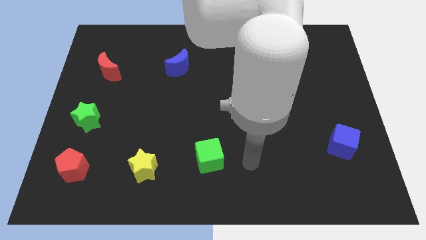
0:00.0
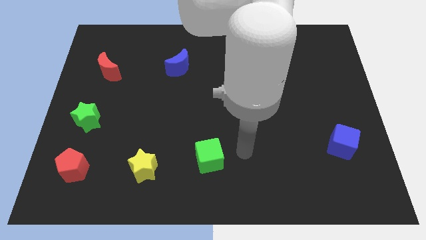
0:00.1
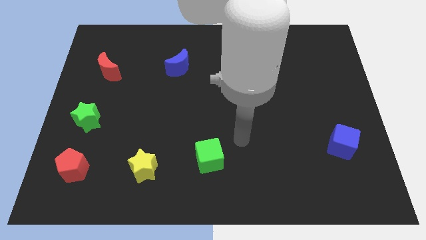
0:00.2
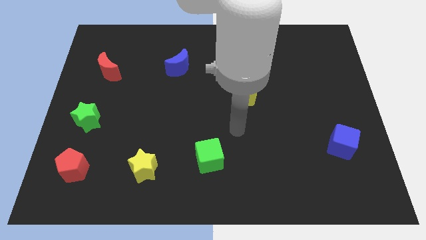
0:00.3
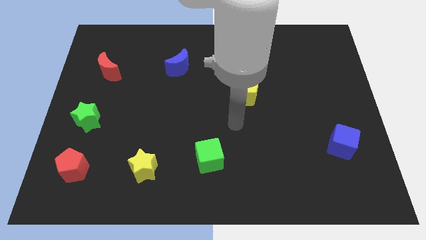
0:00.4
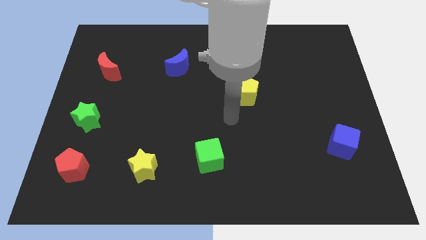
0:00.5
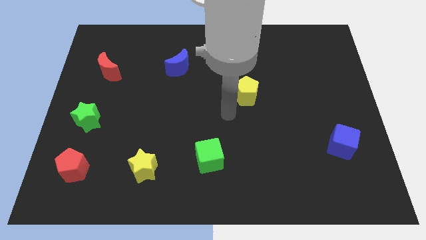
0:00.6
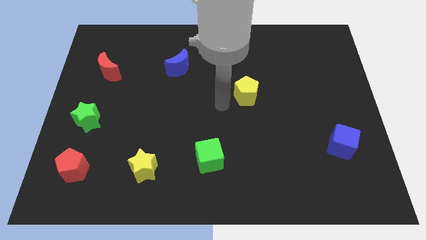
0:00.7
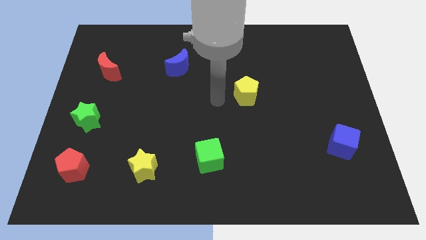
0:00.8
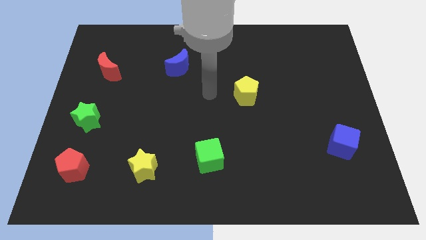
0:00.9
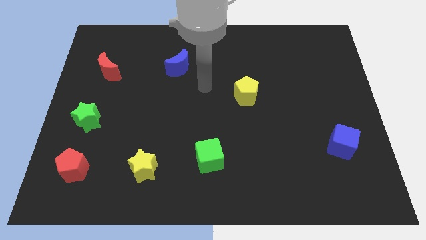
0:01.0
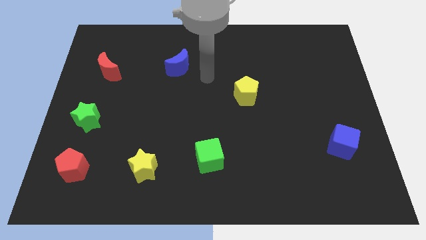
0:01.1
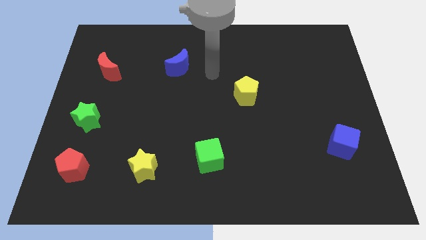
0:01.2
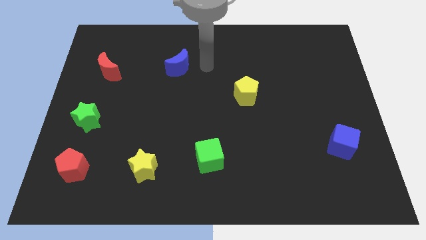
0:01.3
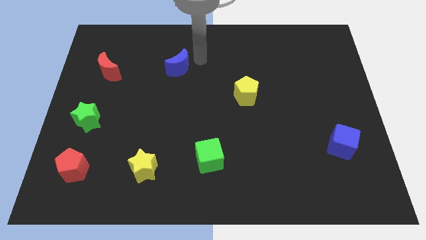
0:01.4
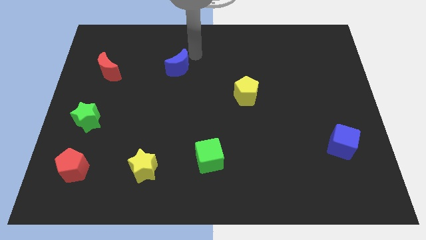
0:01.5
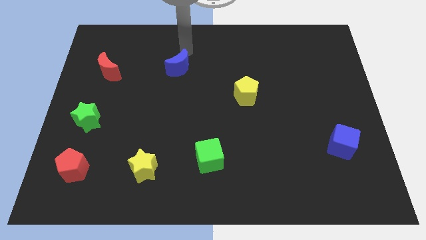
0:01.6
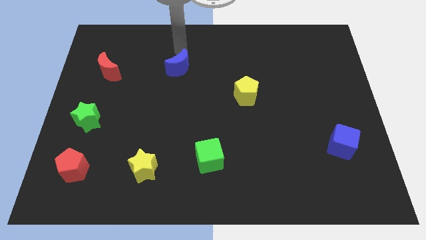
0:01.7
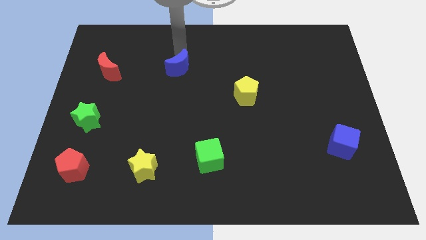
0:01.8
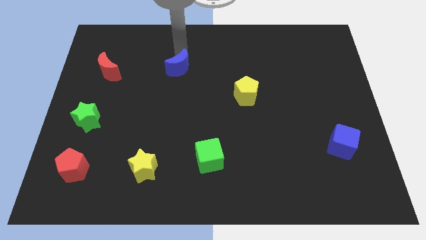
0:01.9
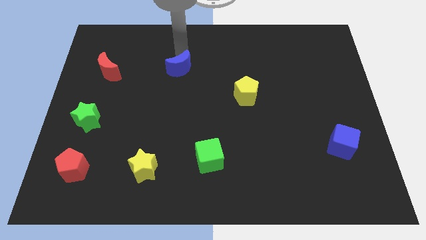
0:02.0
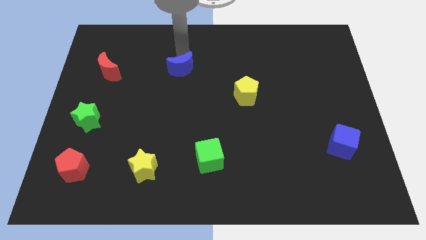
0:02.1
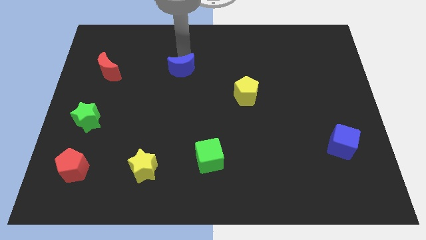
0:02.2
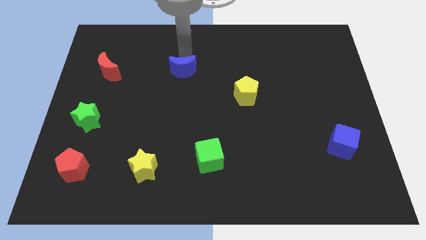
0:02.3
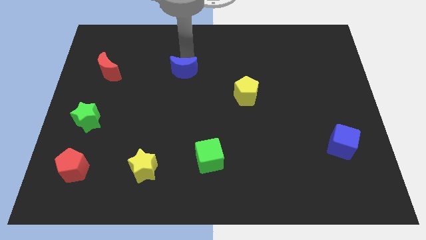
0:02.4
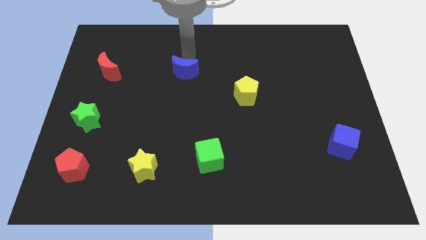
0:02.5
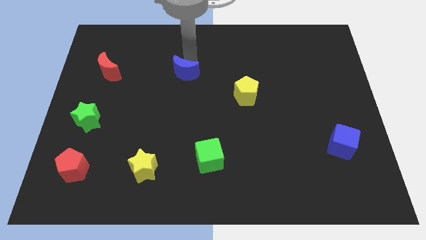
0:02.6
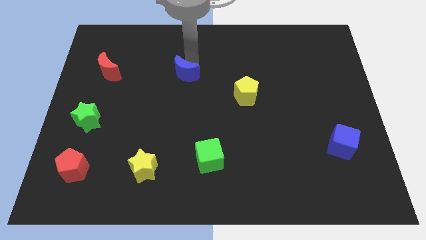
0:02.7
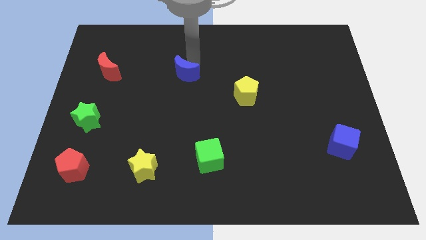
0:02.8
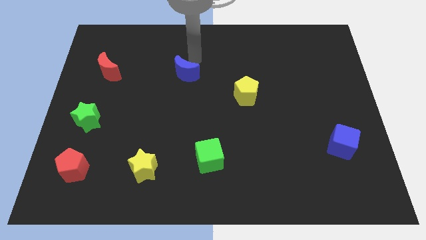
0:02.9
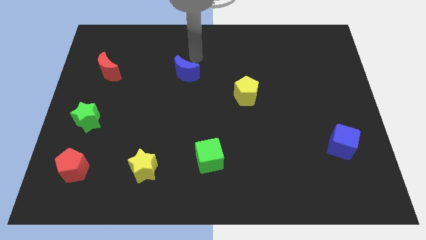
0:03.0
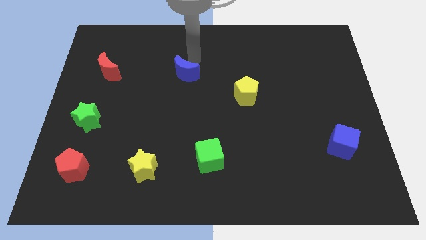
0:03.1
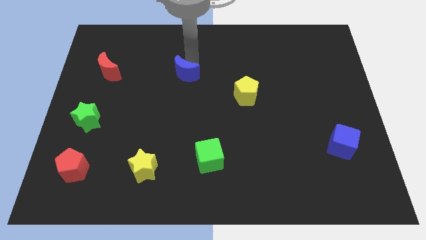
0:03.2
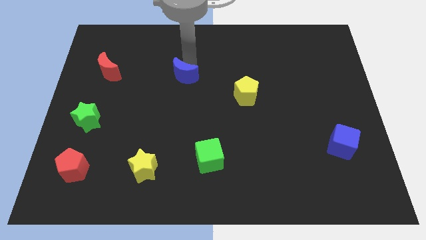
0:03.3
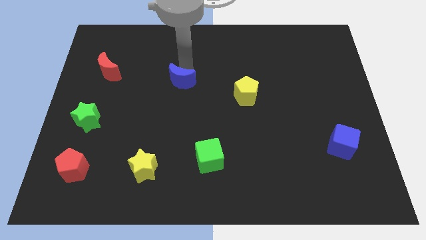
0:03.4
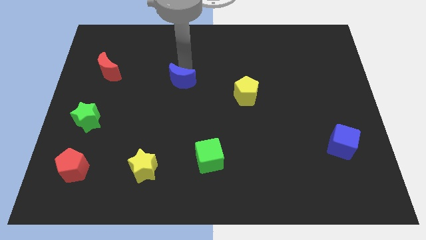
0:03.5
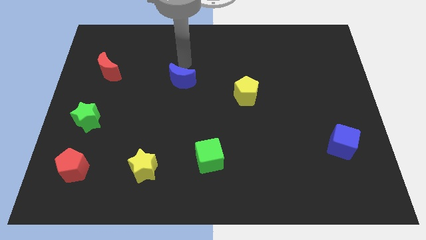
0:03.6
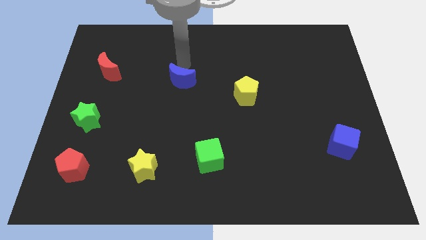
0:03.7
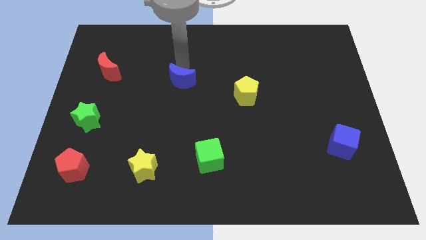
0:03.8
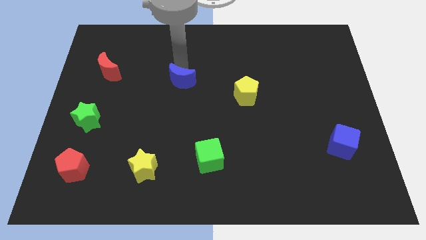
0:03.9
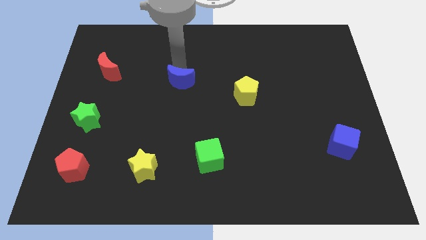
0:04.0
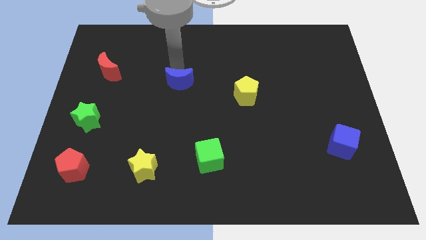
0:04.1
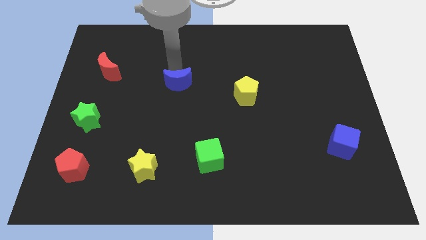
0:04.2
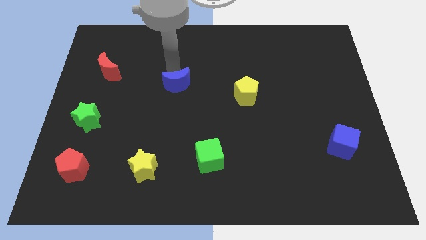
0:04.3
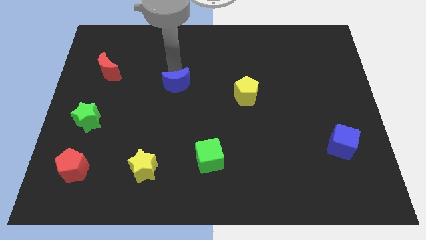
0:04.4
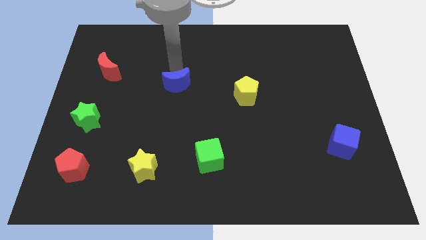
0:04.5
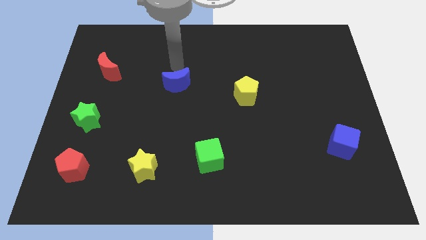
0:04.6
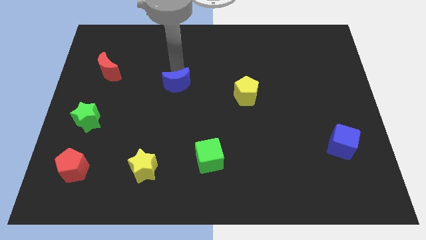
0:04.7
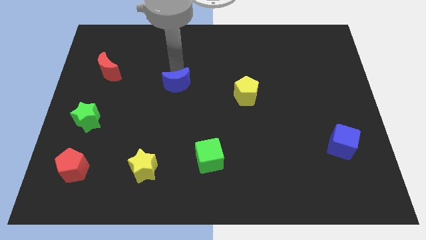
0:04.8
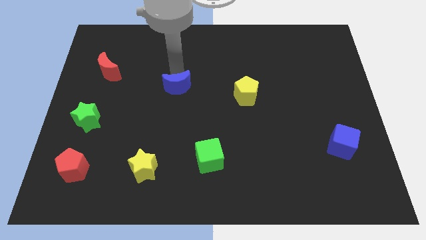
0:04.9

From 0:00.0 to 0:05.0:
slightly push the blue moon down

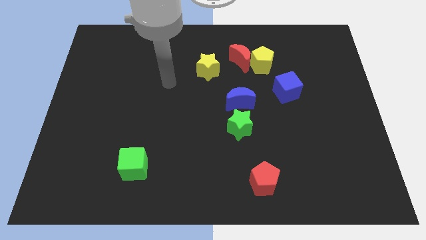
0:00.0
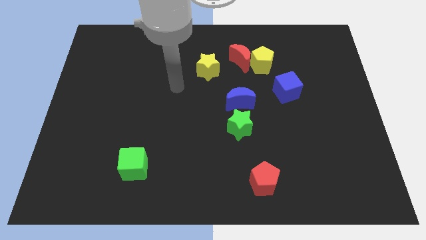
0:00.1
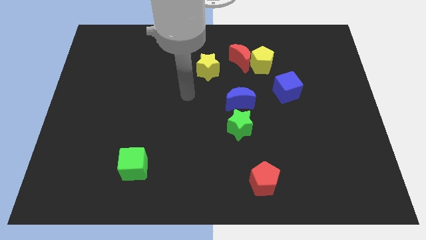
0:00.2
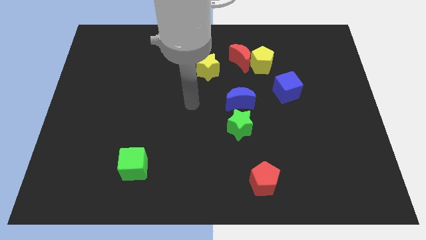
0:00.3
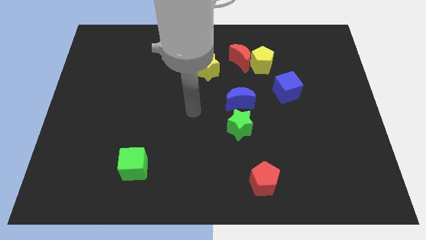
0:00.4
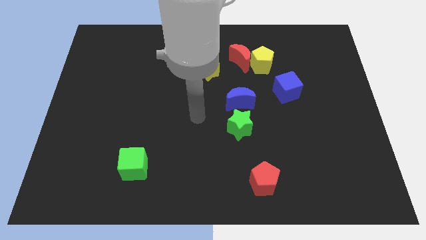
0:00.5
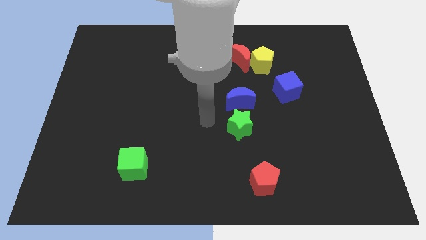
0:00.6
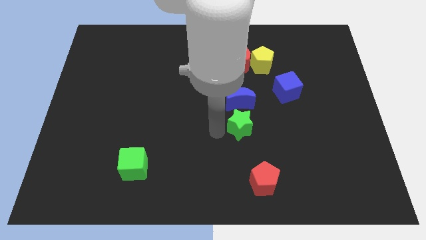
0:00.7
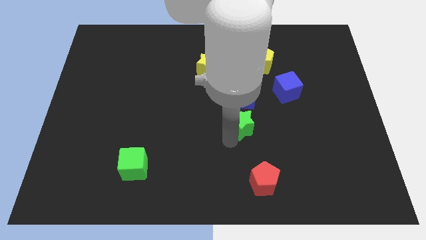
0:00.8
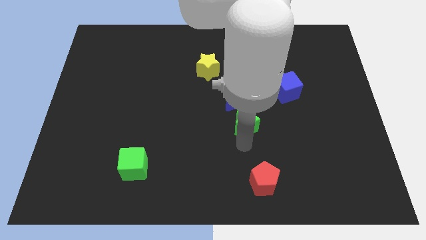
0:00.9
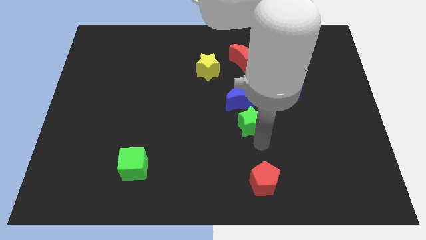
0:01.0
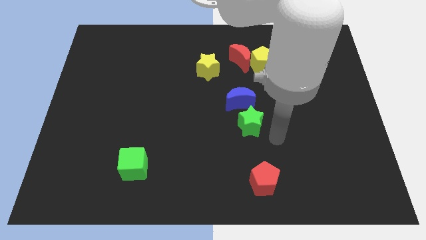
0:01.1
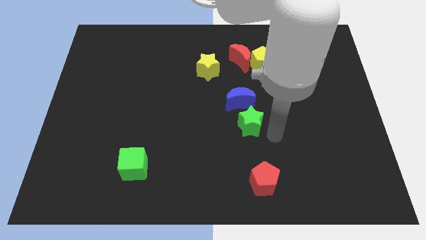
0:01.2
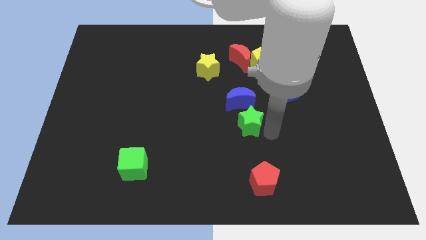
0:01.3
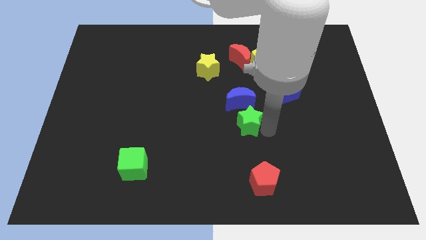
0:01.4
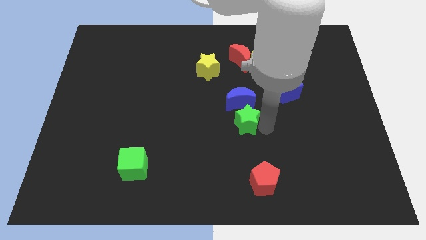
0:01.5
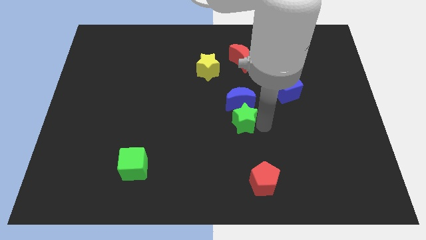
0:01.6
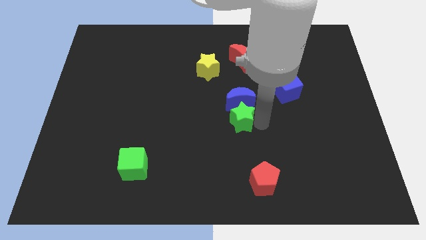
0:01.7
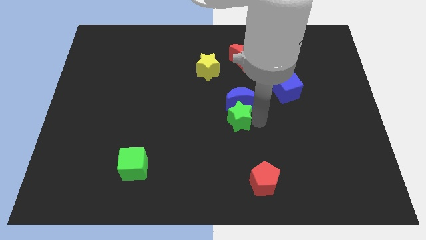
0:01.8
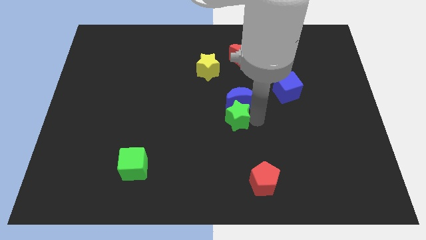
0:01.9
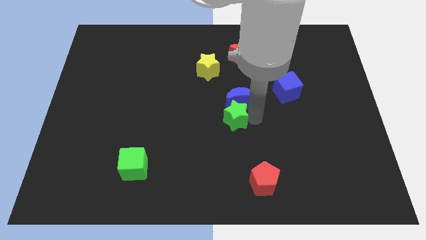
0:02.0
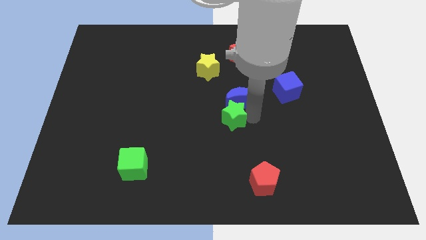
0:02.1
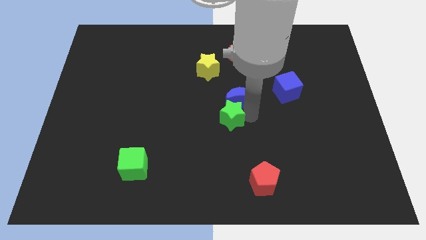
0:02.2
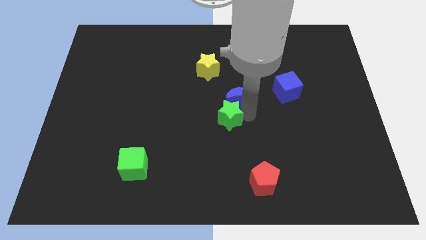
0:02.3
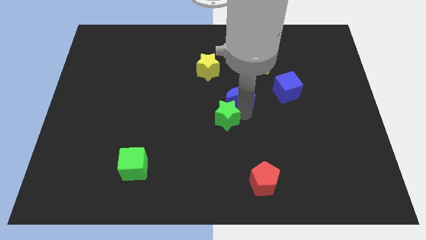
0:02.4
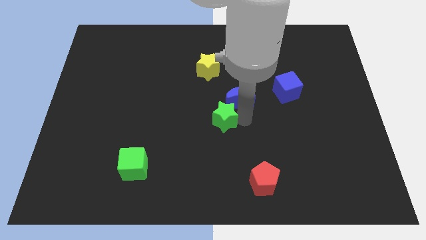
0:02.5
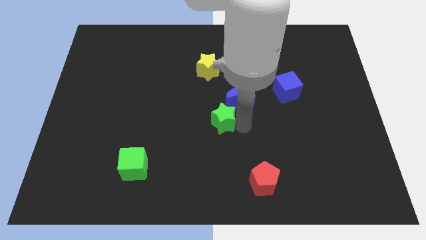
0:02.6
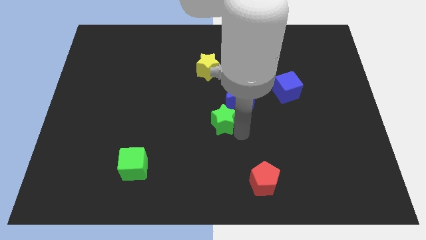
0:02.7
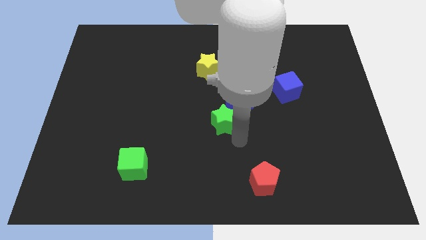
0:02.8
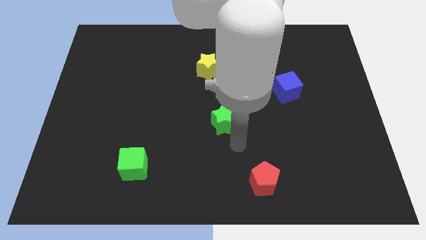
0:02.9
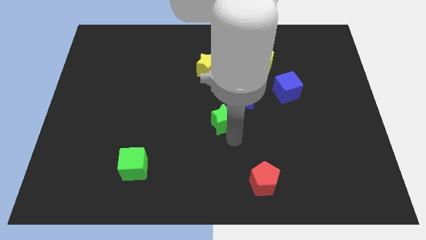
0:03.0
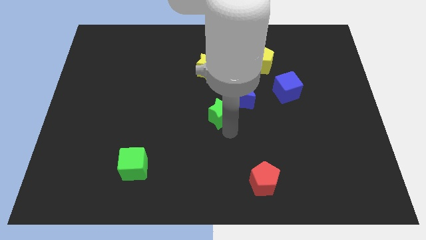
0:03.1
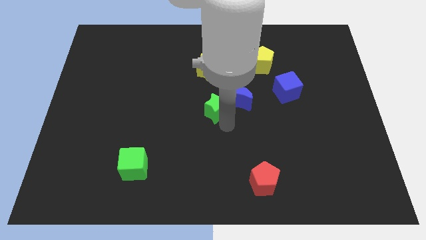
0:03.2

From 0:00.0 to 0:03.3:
push the green star a bit up and left diagonally
